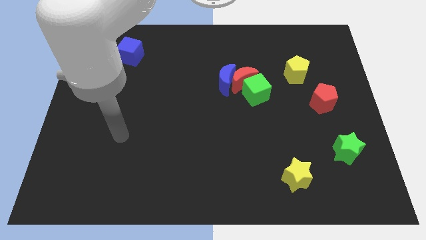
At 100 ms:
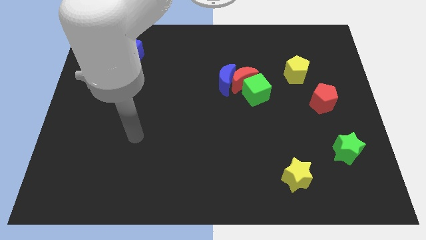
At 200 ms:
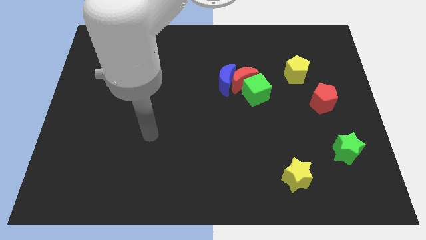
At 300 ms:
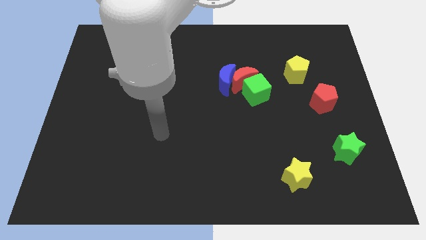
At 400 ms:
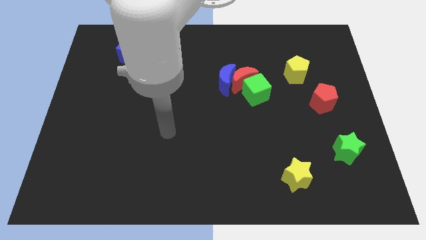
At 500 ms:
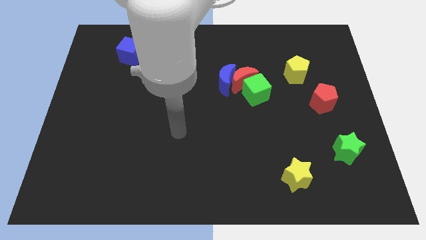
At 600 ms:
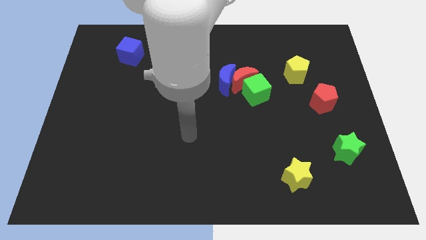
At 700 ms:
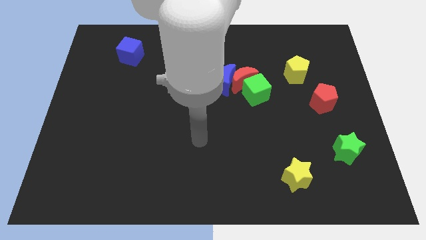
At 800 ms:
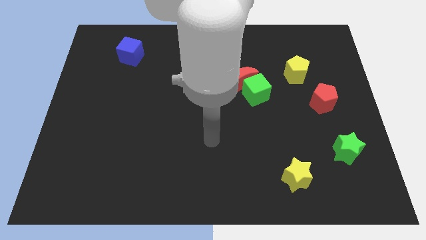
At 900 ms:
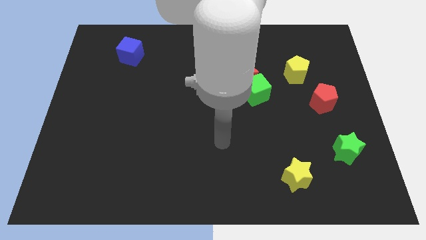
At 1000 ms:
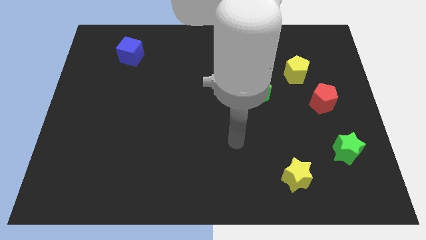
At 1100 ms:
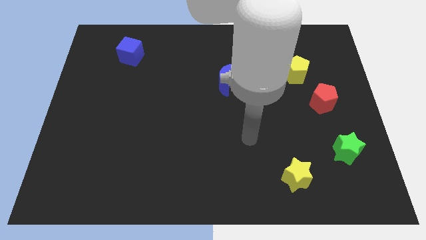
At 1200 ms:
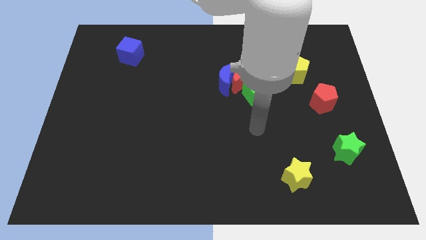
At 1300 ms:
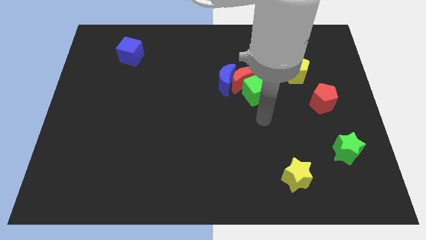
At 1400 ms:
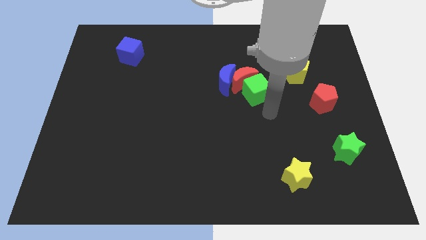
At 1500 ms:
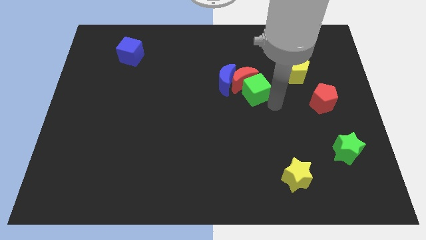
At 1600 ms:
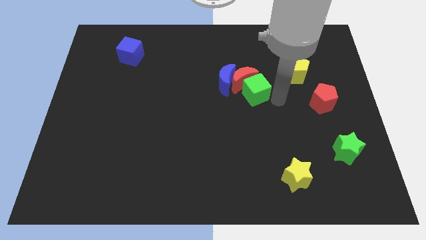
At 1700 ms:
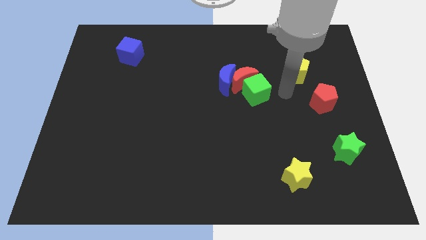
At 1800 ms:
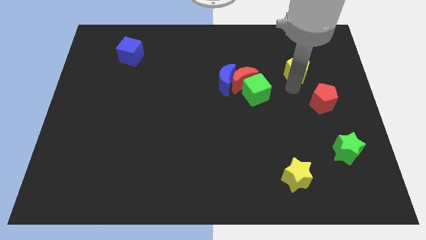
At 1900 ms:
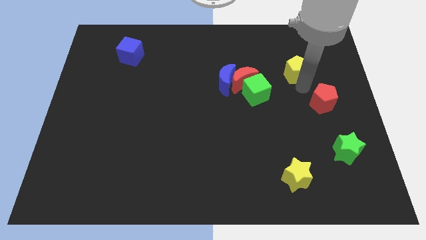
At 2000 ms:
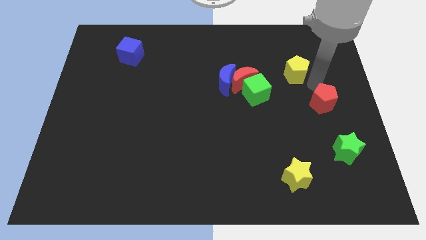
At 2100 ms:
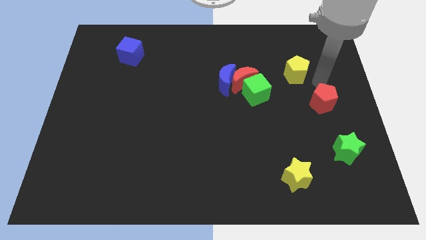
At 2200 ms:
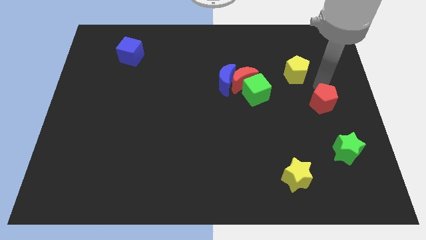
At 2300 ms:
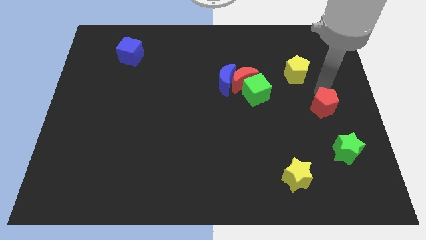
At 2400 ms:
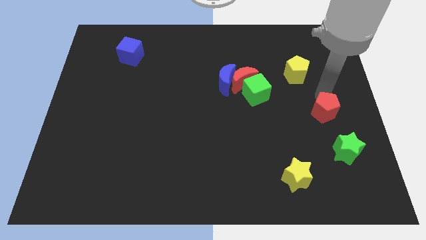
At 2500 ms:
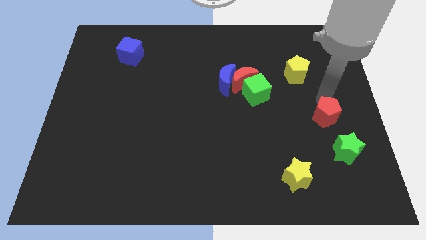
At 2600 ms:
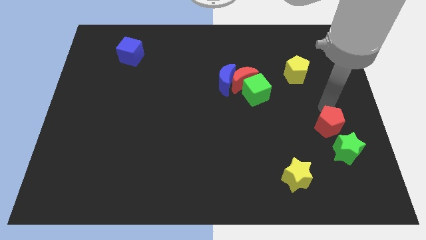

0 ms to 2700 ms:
slightly push the red pentagon downwards

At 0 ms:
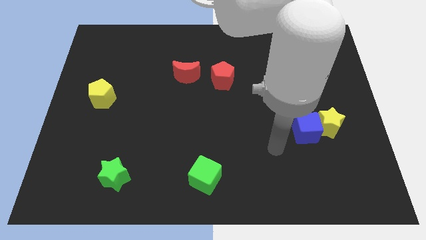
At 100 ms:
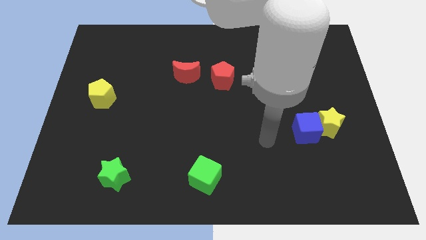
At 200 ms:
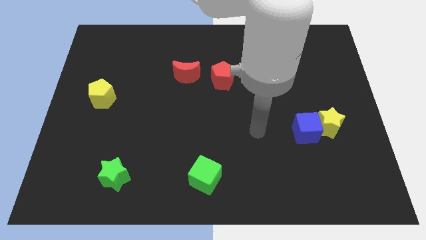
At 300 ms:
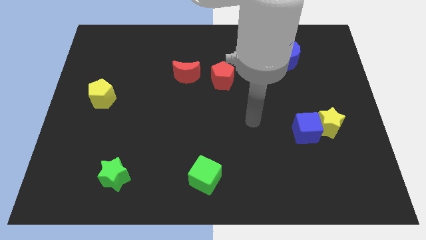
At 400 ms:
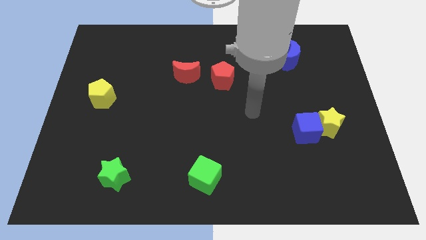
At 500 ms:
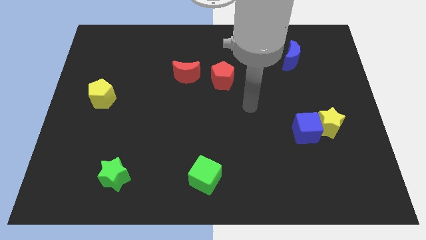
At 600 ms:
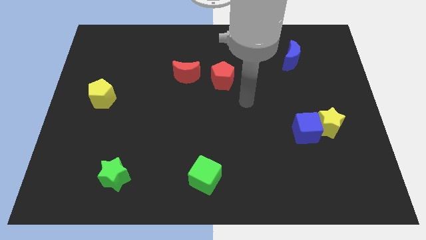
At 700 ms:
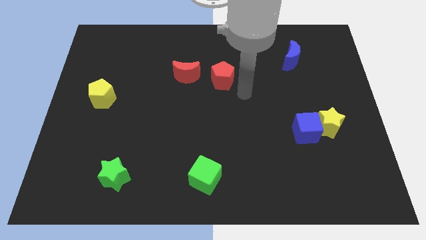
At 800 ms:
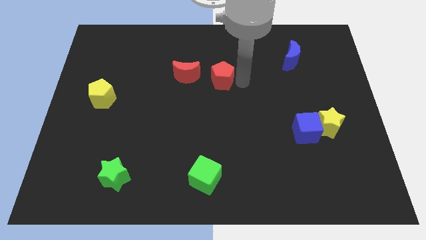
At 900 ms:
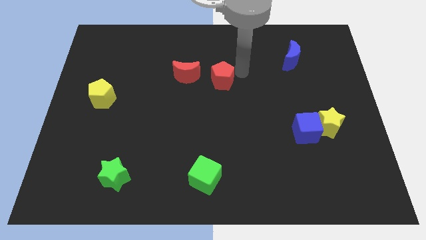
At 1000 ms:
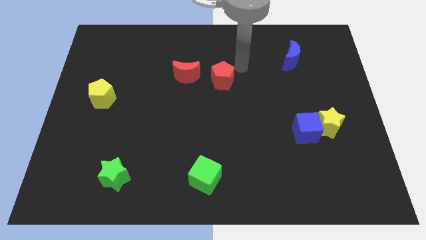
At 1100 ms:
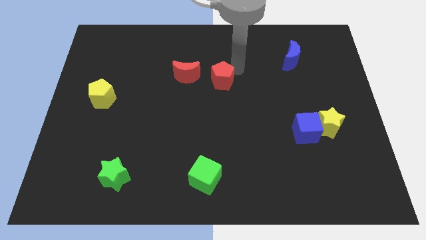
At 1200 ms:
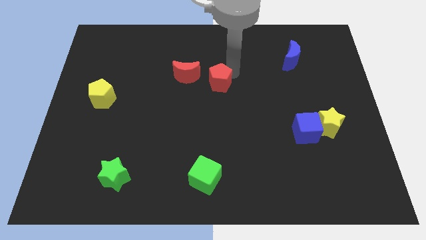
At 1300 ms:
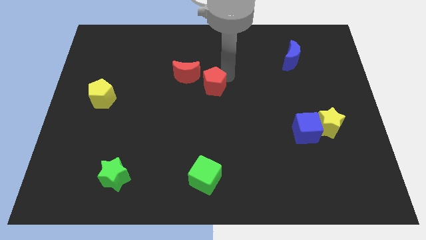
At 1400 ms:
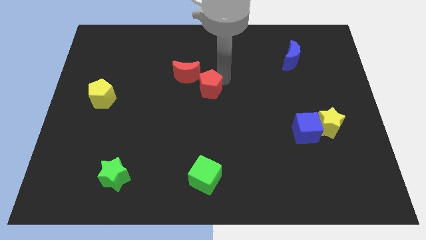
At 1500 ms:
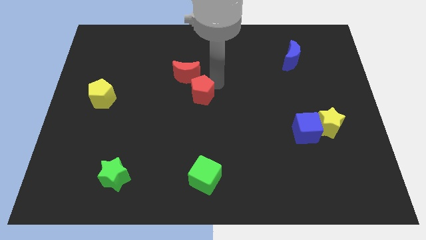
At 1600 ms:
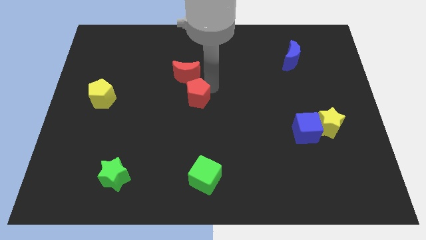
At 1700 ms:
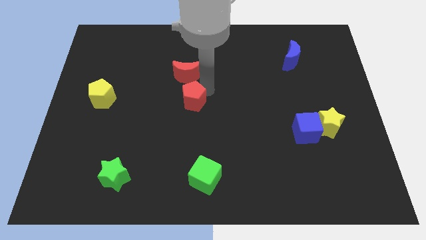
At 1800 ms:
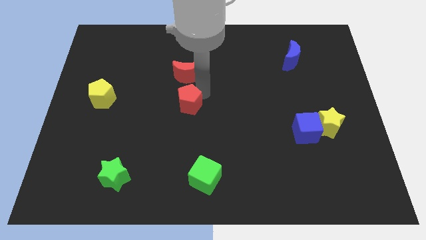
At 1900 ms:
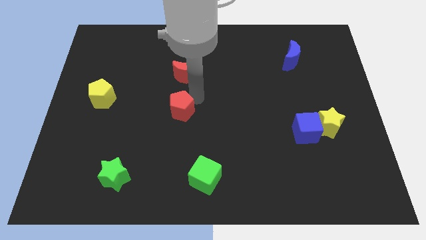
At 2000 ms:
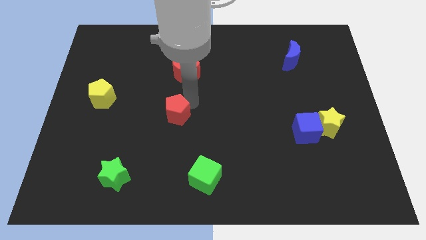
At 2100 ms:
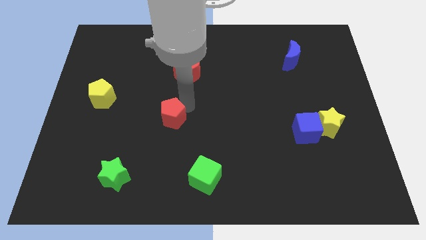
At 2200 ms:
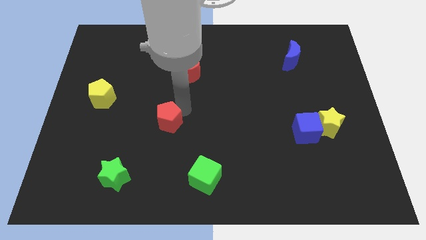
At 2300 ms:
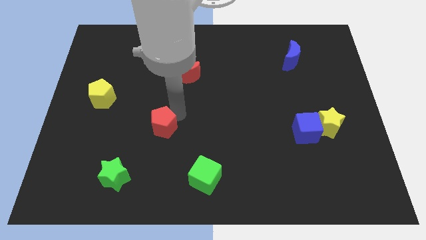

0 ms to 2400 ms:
move the red pentagon down and to the left diagonally

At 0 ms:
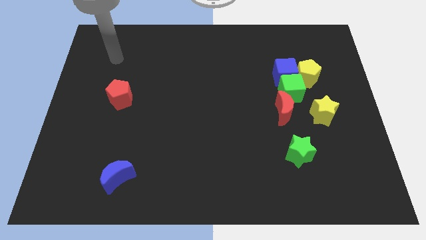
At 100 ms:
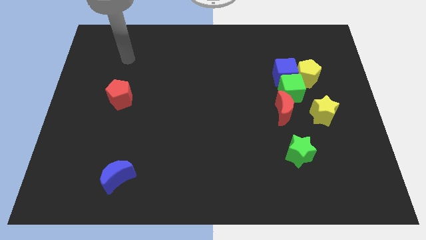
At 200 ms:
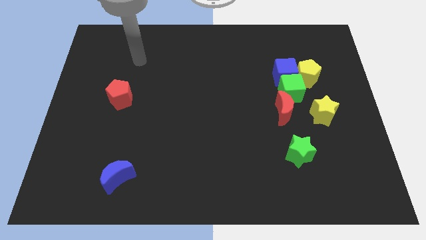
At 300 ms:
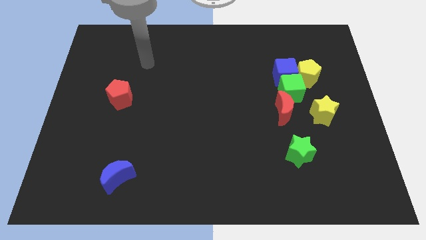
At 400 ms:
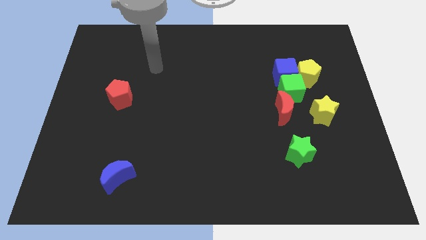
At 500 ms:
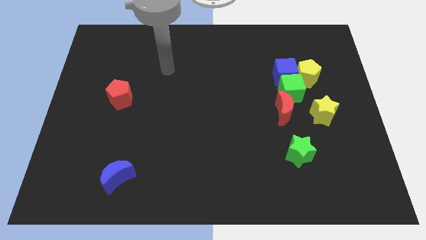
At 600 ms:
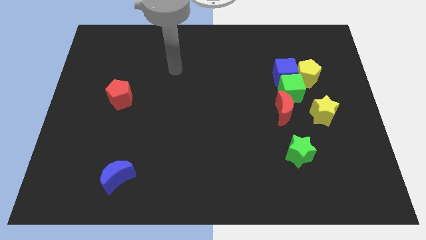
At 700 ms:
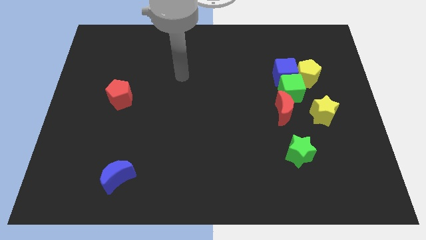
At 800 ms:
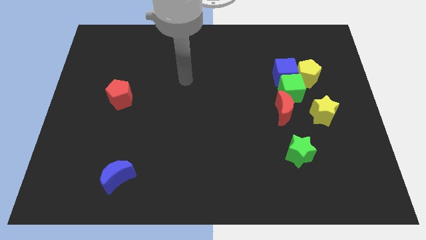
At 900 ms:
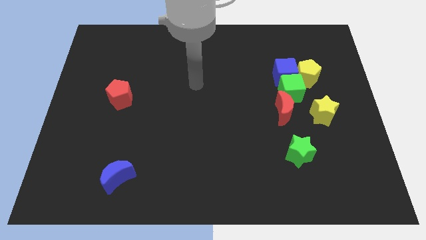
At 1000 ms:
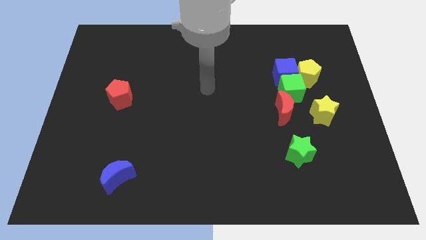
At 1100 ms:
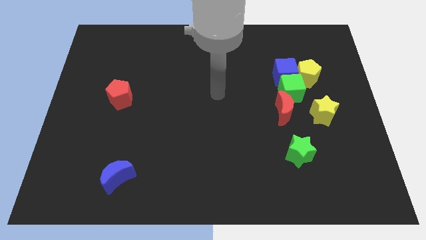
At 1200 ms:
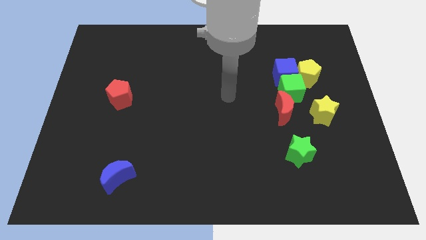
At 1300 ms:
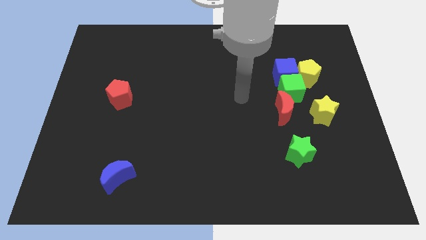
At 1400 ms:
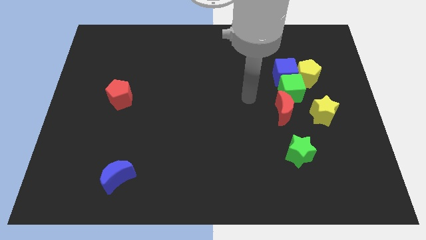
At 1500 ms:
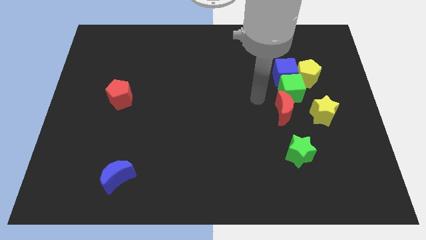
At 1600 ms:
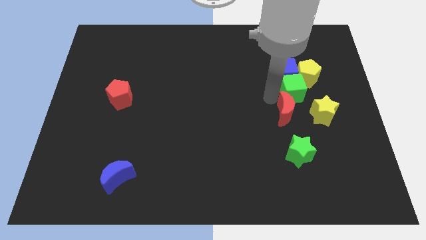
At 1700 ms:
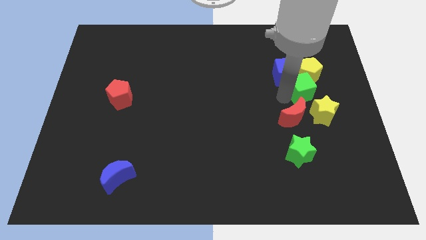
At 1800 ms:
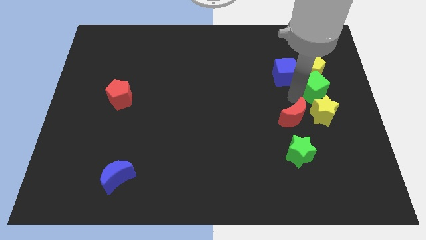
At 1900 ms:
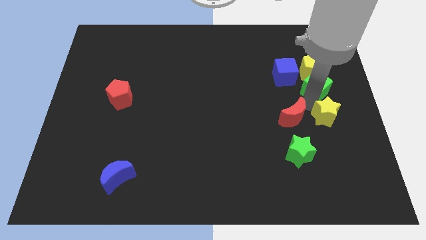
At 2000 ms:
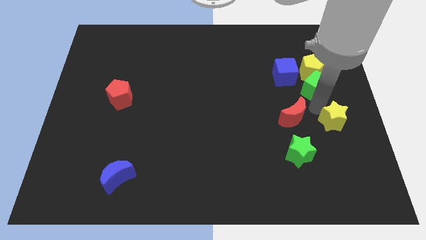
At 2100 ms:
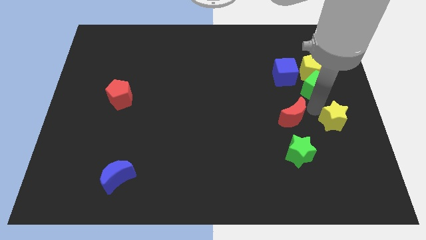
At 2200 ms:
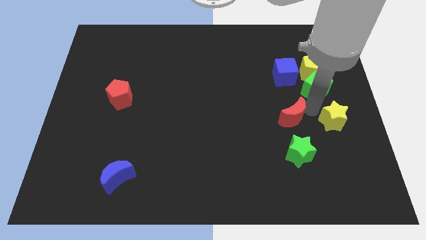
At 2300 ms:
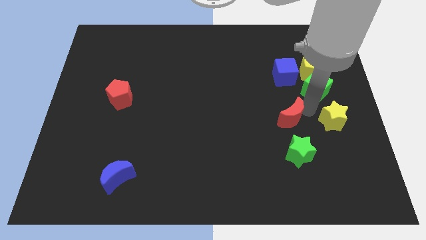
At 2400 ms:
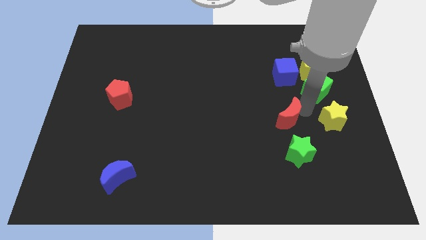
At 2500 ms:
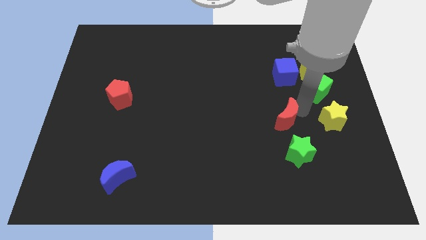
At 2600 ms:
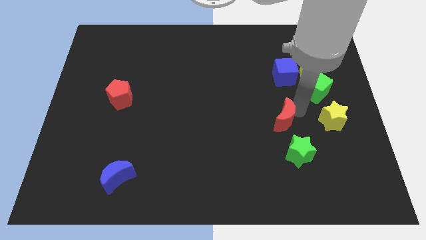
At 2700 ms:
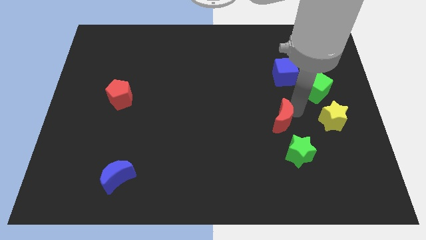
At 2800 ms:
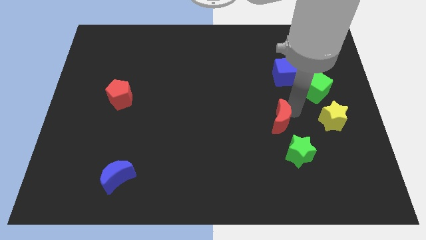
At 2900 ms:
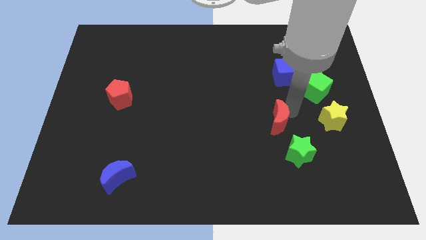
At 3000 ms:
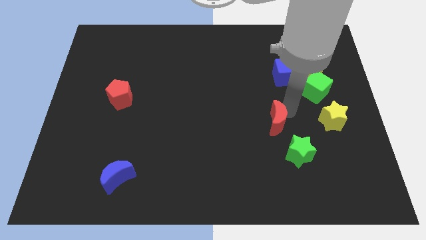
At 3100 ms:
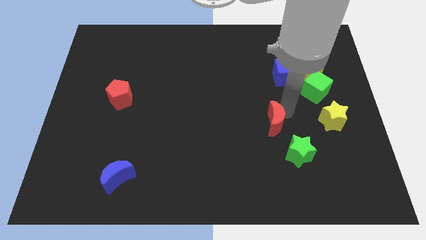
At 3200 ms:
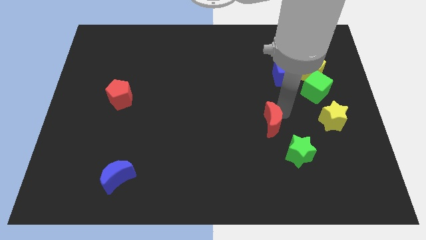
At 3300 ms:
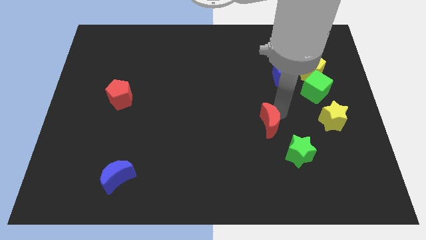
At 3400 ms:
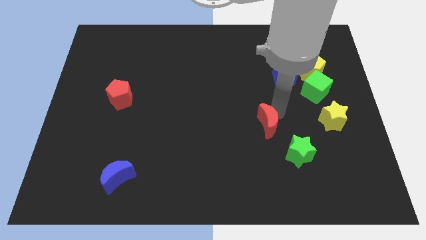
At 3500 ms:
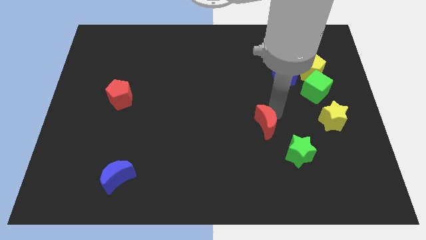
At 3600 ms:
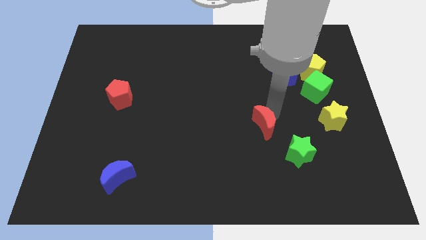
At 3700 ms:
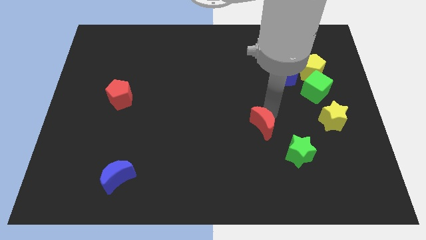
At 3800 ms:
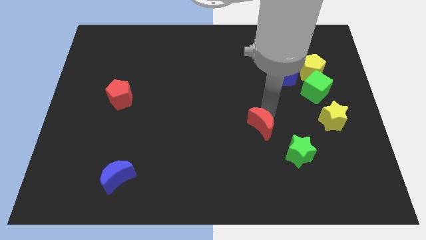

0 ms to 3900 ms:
slide the red moon slightly down and then left
